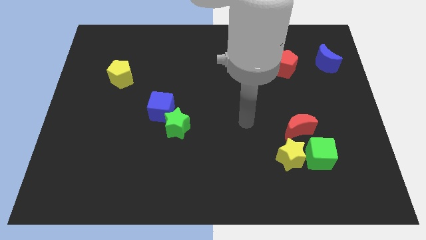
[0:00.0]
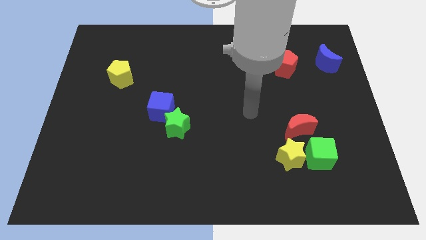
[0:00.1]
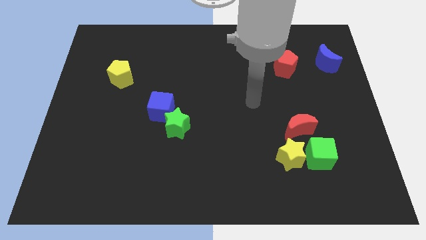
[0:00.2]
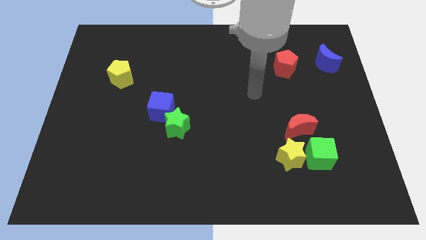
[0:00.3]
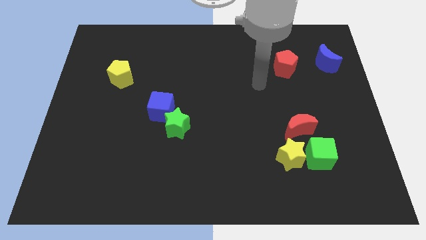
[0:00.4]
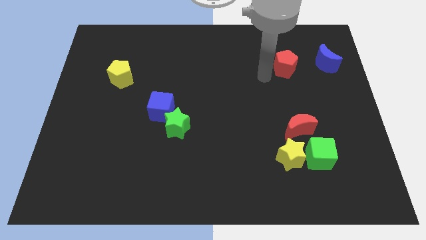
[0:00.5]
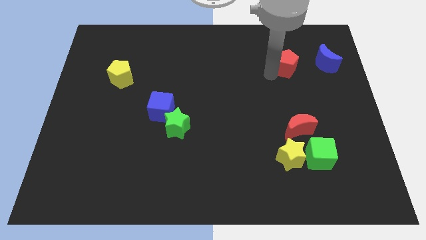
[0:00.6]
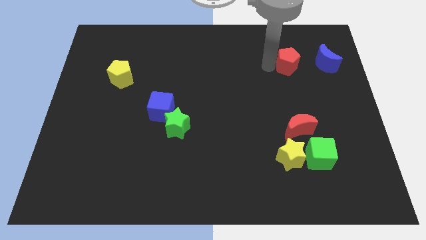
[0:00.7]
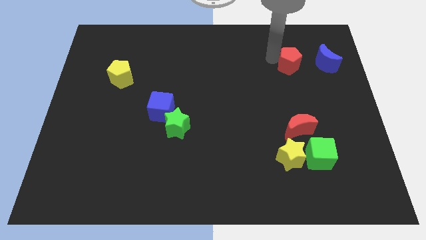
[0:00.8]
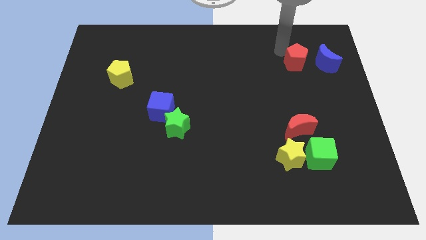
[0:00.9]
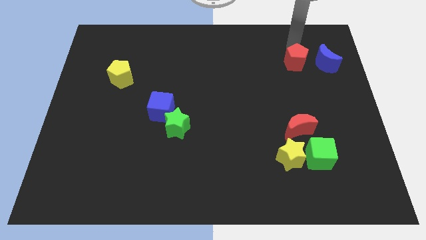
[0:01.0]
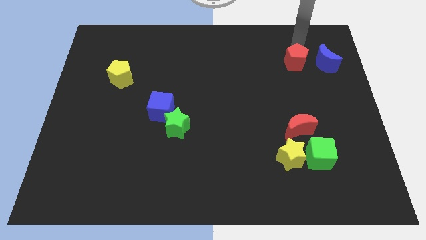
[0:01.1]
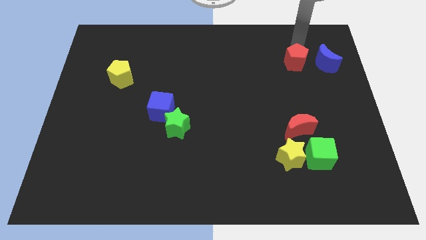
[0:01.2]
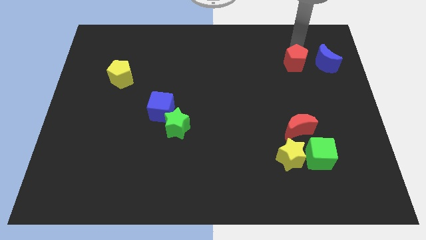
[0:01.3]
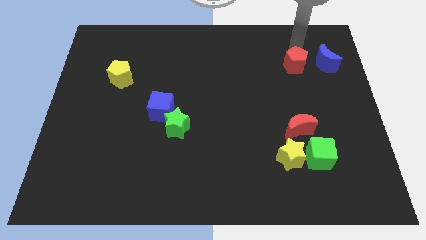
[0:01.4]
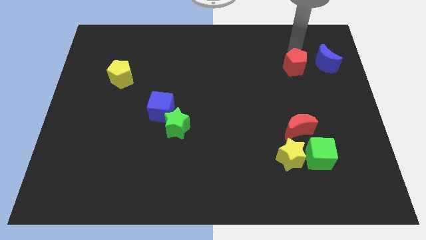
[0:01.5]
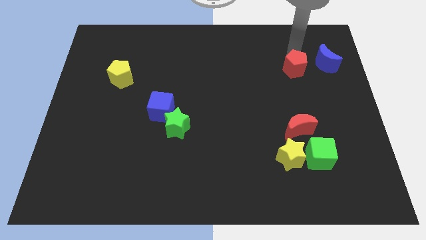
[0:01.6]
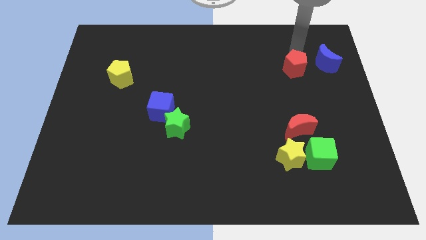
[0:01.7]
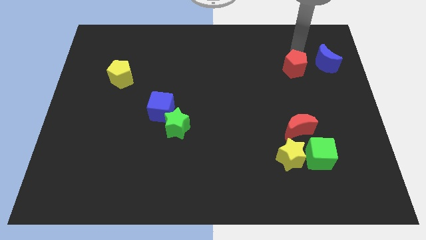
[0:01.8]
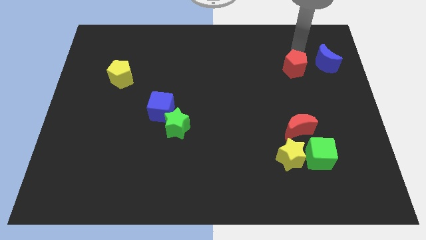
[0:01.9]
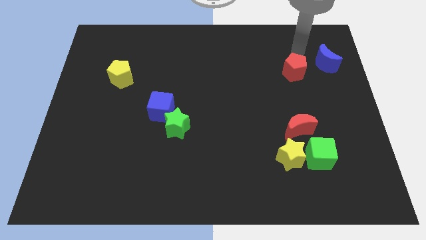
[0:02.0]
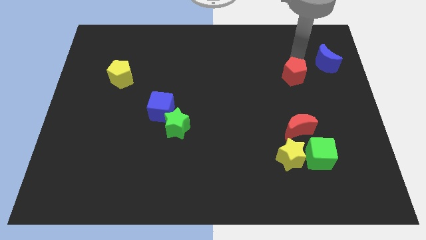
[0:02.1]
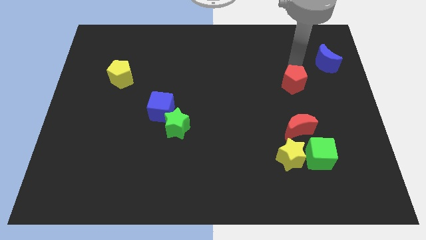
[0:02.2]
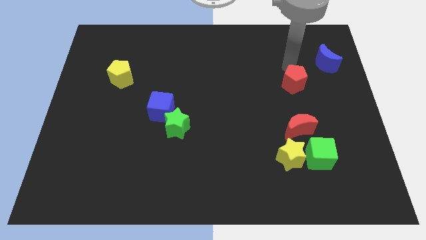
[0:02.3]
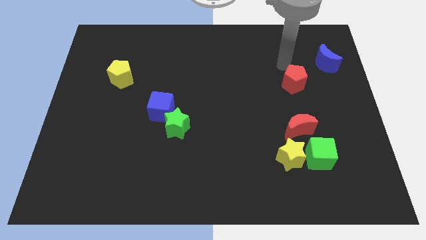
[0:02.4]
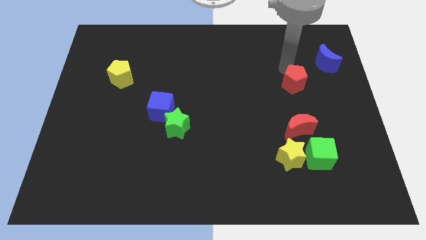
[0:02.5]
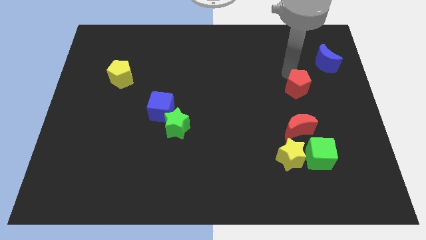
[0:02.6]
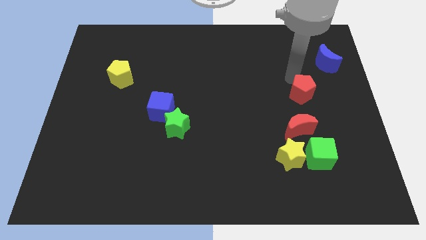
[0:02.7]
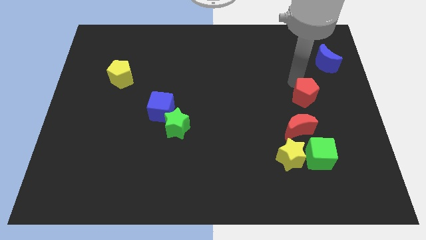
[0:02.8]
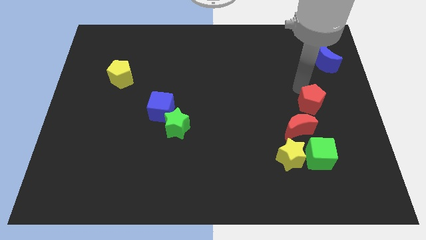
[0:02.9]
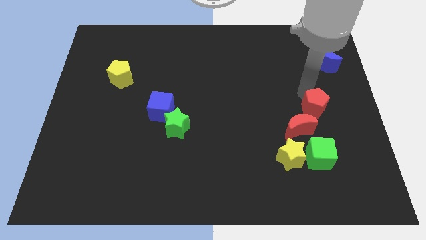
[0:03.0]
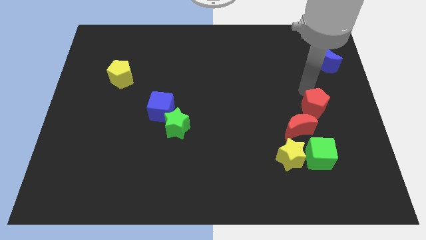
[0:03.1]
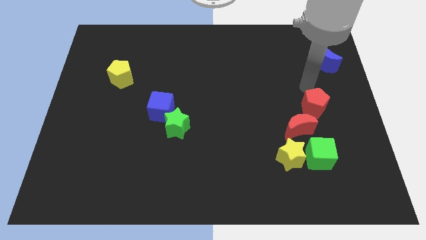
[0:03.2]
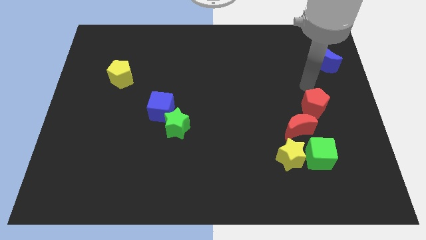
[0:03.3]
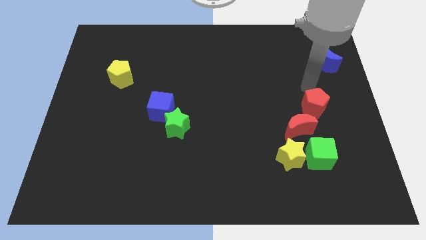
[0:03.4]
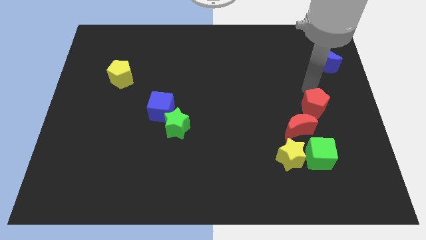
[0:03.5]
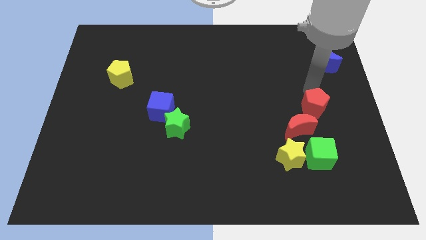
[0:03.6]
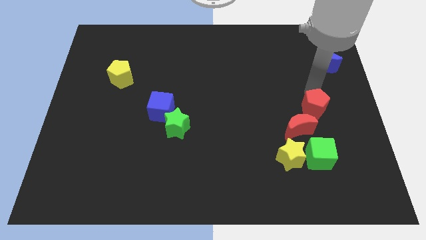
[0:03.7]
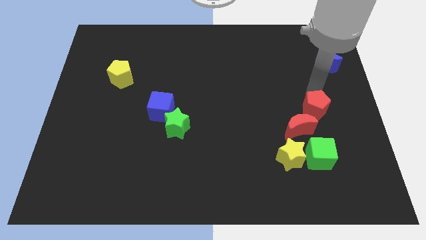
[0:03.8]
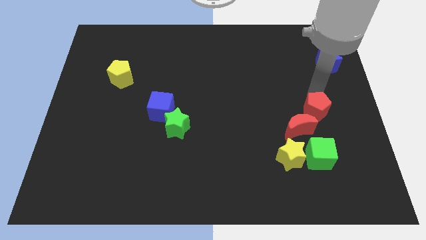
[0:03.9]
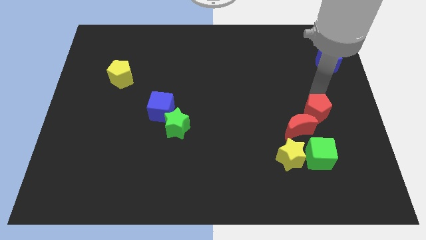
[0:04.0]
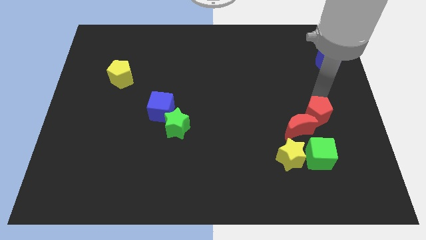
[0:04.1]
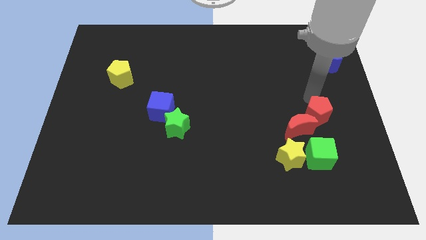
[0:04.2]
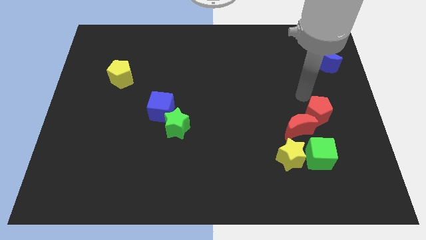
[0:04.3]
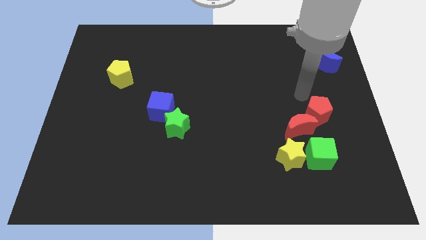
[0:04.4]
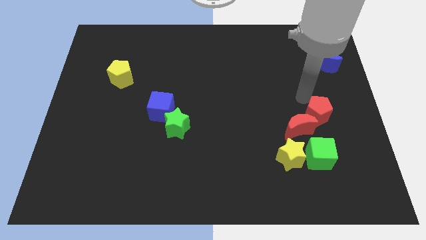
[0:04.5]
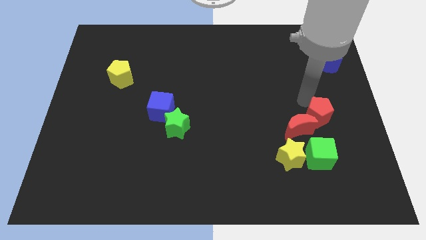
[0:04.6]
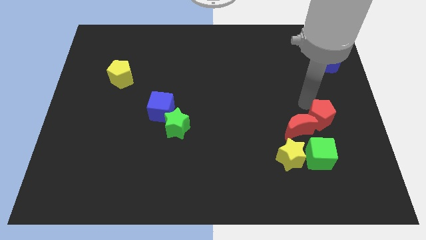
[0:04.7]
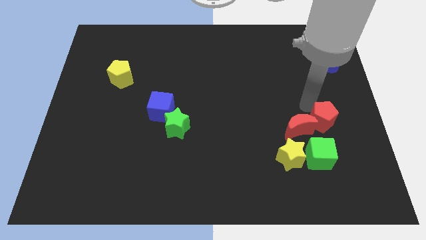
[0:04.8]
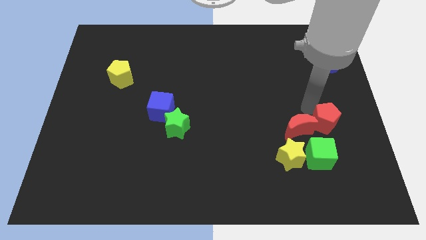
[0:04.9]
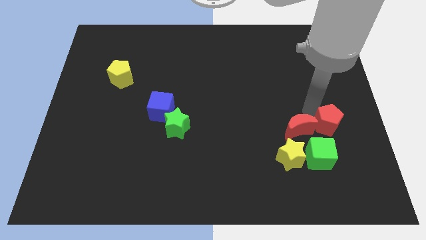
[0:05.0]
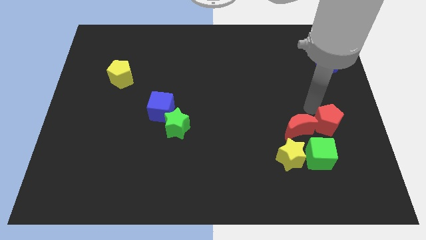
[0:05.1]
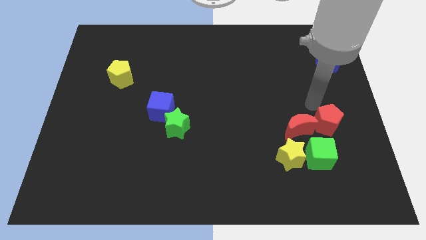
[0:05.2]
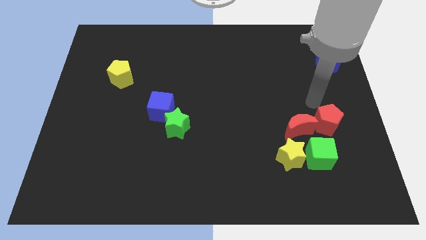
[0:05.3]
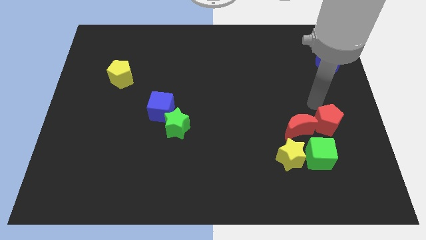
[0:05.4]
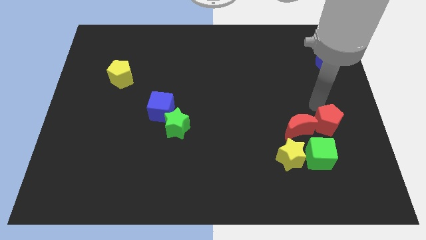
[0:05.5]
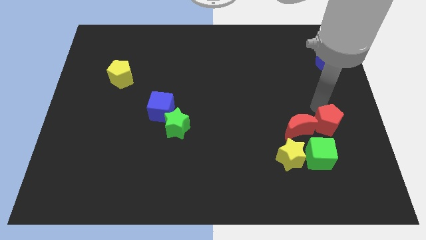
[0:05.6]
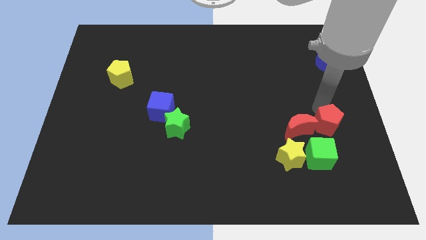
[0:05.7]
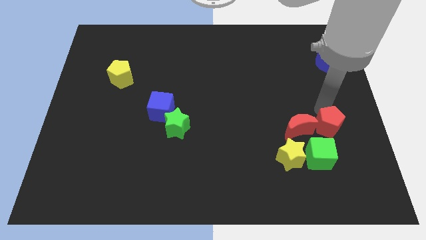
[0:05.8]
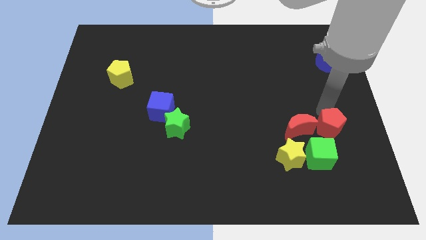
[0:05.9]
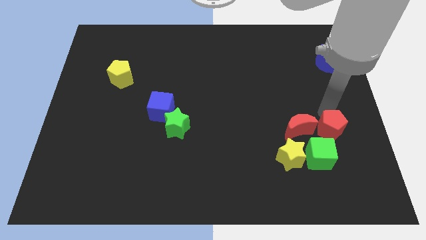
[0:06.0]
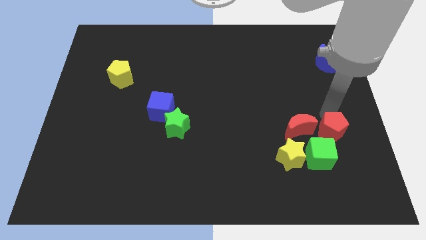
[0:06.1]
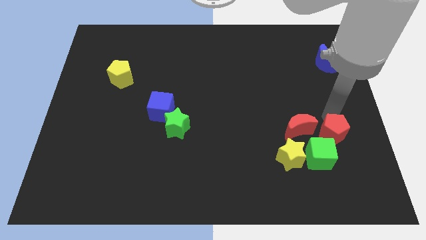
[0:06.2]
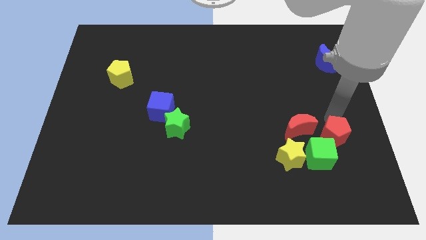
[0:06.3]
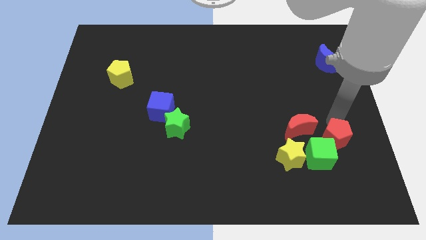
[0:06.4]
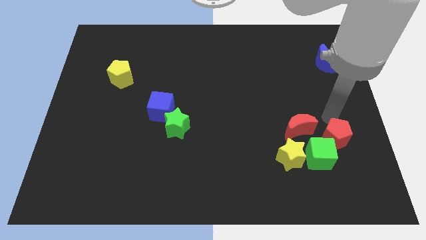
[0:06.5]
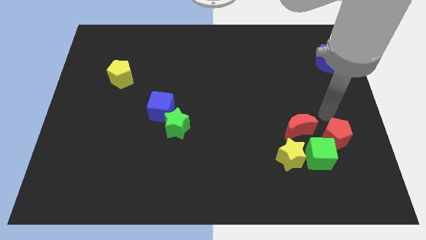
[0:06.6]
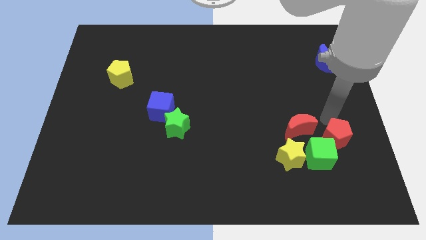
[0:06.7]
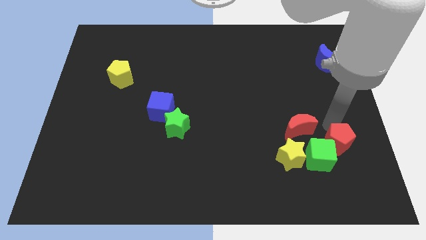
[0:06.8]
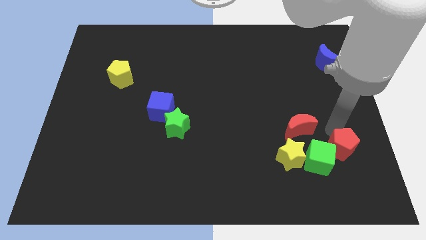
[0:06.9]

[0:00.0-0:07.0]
slide the red pentagon downwards

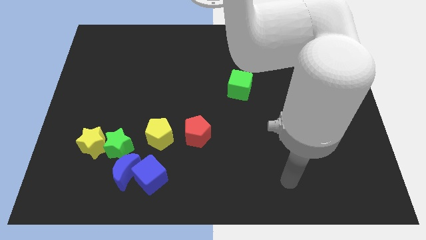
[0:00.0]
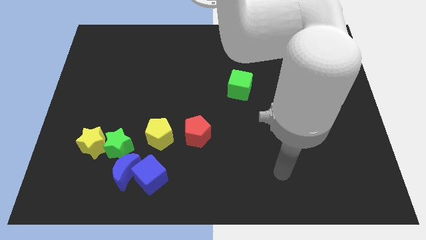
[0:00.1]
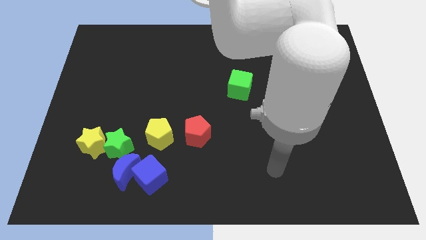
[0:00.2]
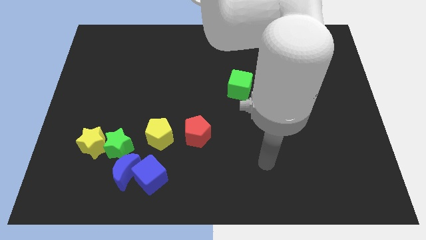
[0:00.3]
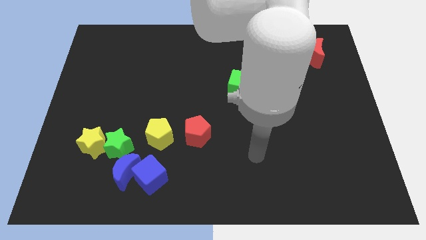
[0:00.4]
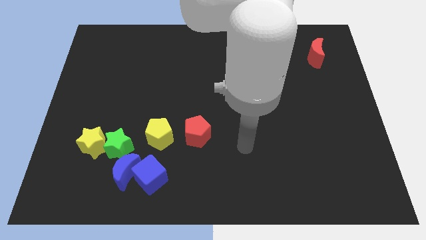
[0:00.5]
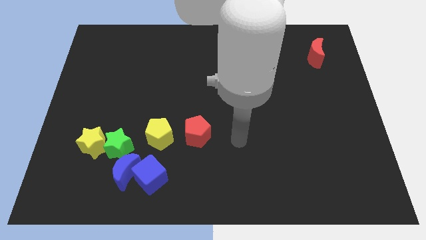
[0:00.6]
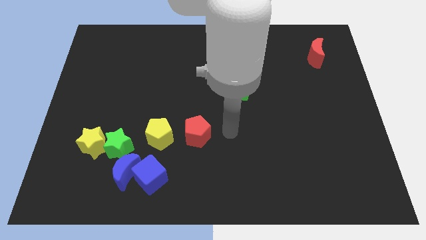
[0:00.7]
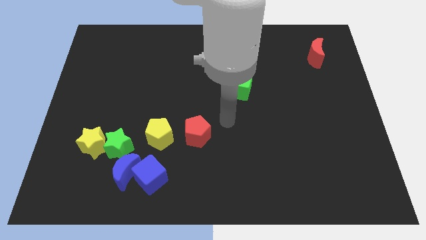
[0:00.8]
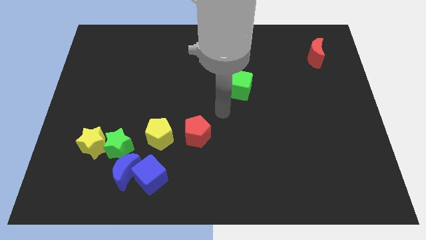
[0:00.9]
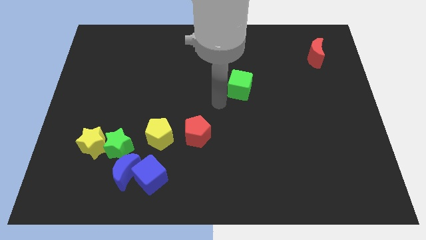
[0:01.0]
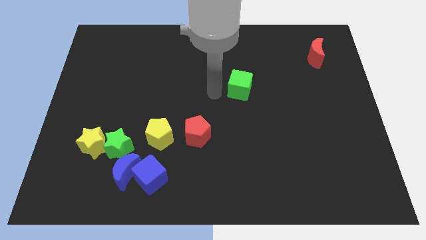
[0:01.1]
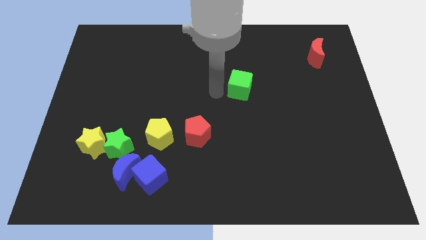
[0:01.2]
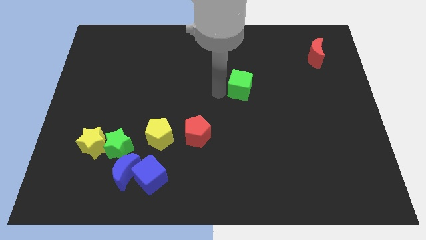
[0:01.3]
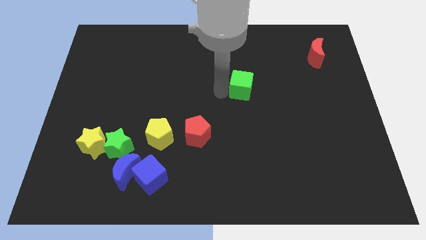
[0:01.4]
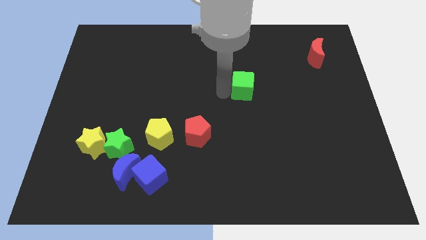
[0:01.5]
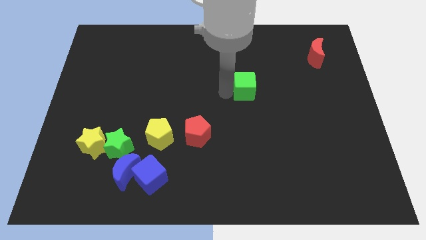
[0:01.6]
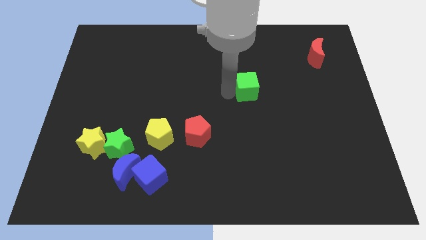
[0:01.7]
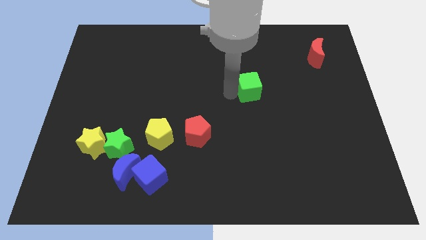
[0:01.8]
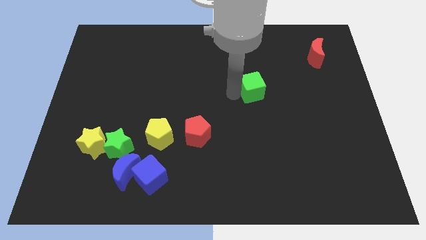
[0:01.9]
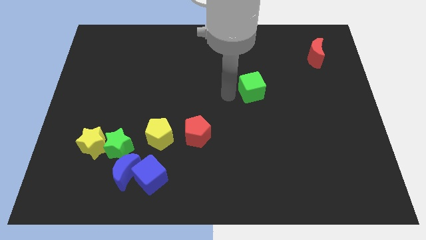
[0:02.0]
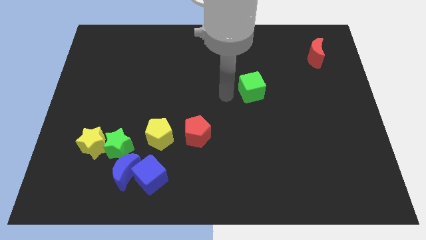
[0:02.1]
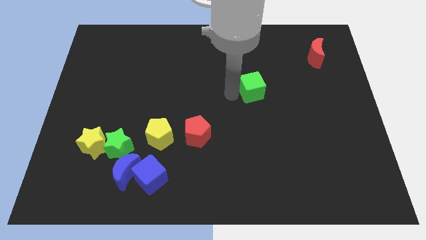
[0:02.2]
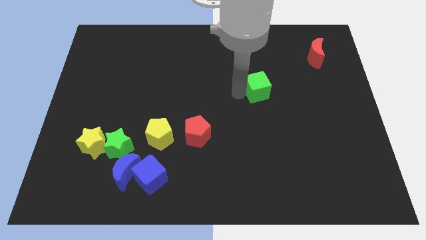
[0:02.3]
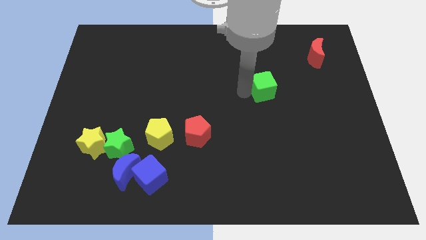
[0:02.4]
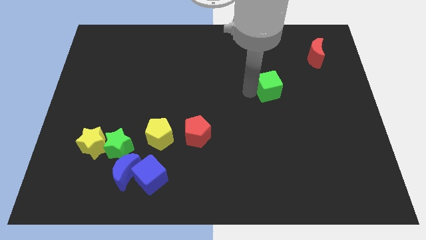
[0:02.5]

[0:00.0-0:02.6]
slide the green cube a little bit right
